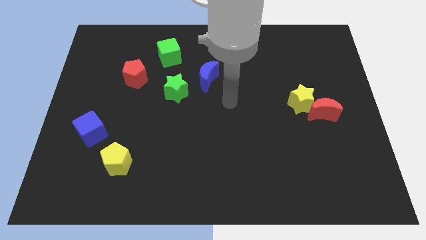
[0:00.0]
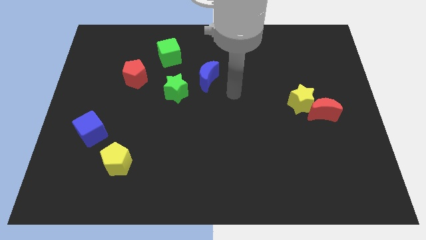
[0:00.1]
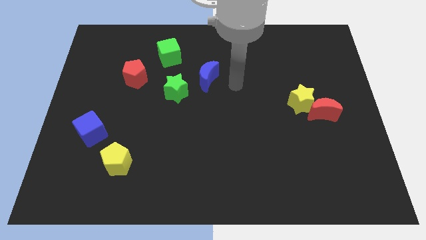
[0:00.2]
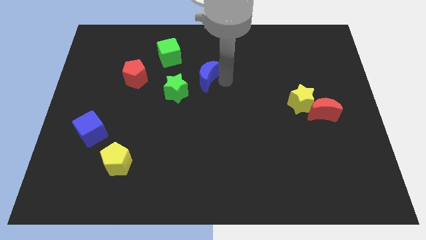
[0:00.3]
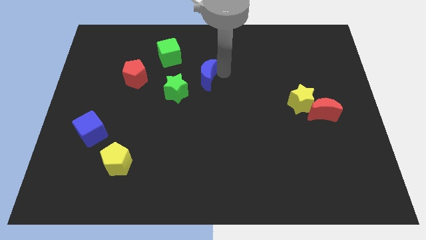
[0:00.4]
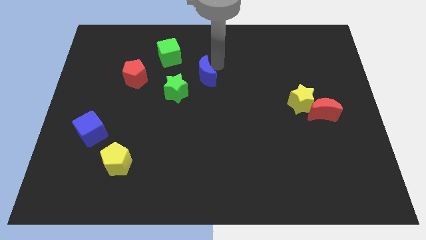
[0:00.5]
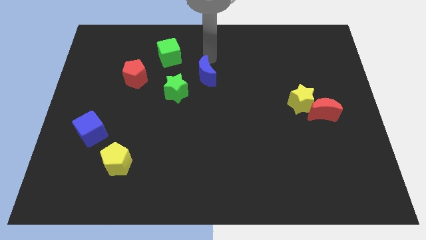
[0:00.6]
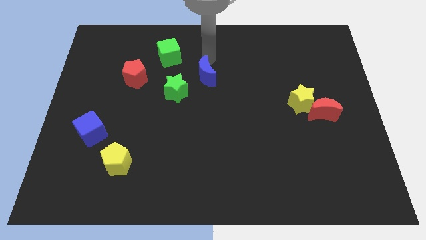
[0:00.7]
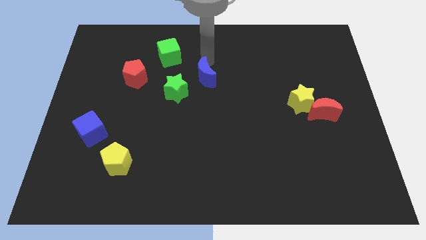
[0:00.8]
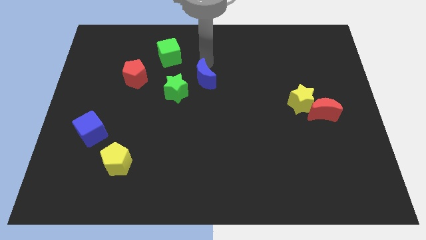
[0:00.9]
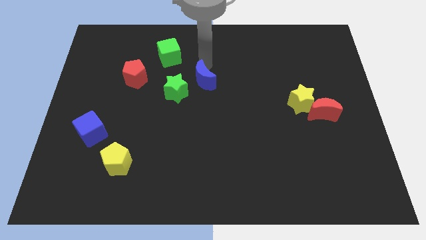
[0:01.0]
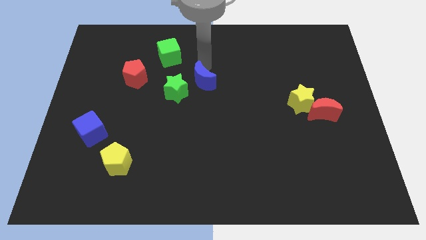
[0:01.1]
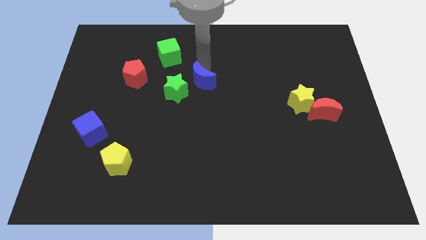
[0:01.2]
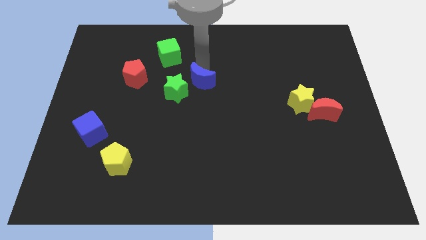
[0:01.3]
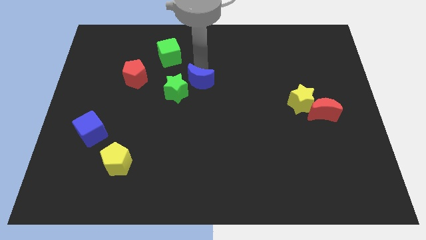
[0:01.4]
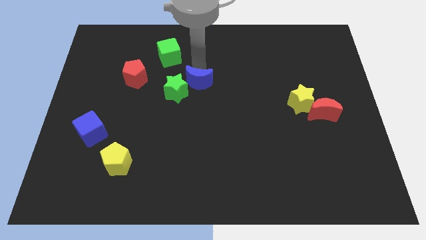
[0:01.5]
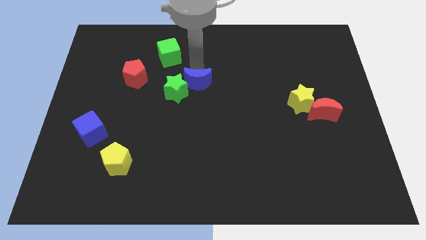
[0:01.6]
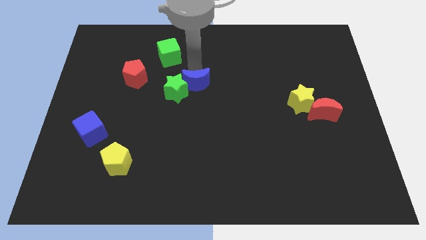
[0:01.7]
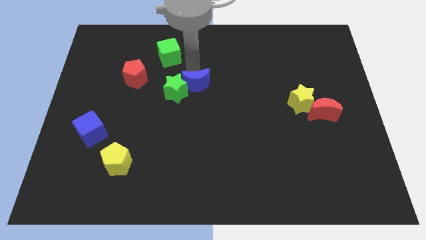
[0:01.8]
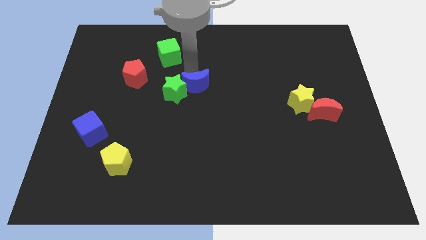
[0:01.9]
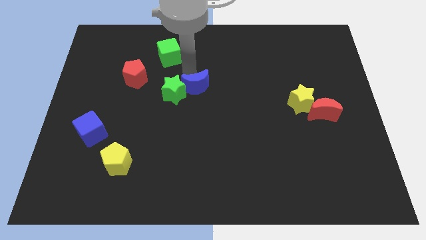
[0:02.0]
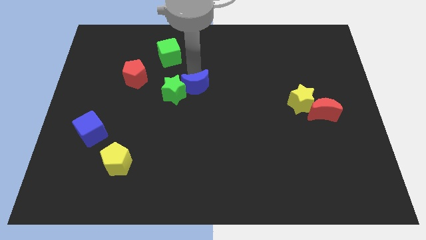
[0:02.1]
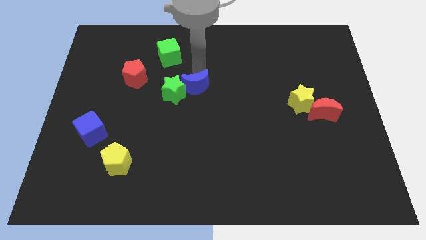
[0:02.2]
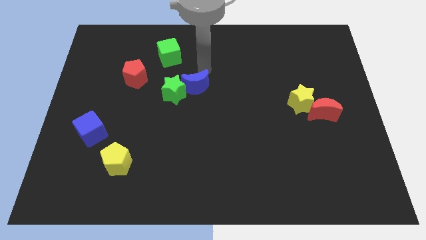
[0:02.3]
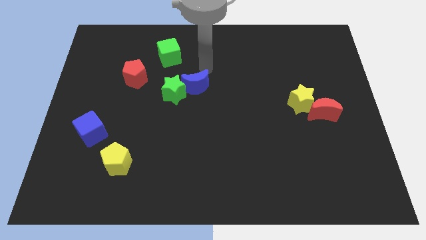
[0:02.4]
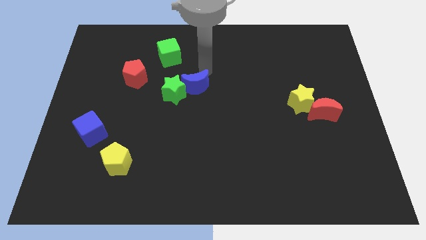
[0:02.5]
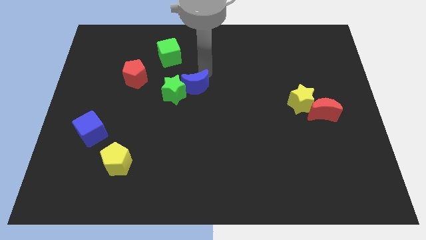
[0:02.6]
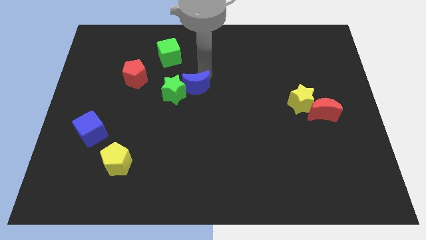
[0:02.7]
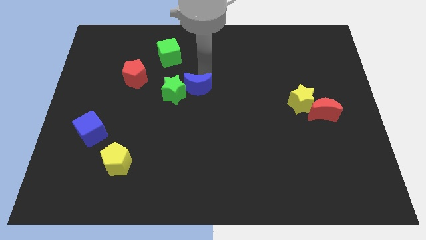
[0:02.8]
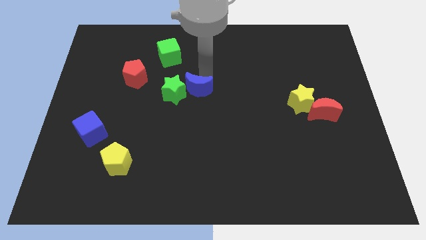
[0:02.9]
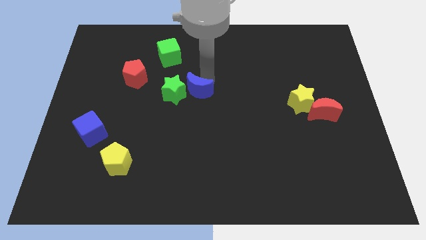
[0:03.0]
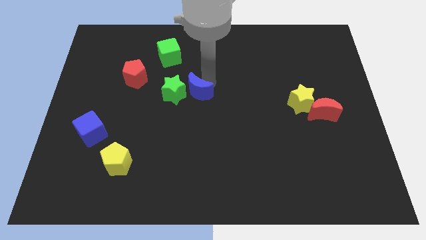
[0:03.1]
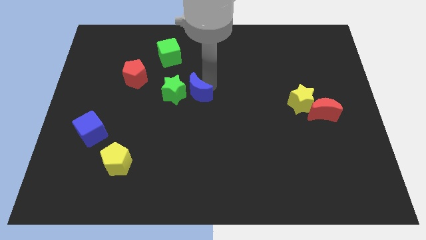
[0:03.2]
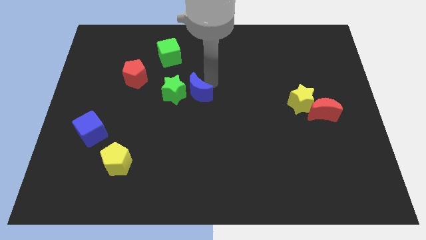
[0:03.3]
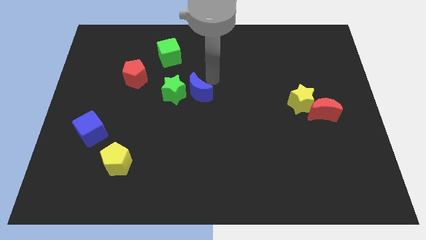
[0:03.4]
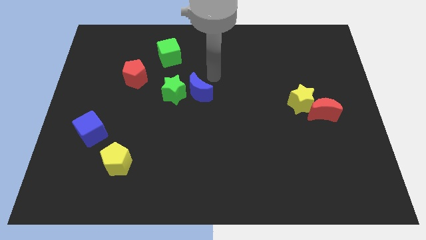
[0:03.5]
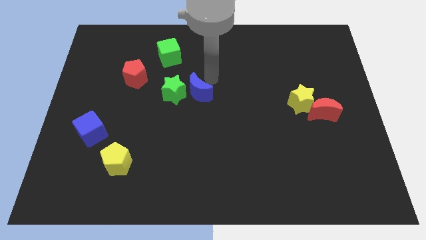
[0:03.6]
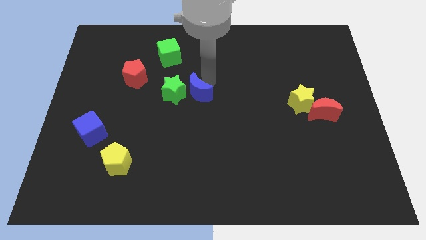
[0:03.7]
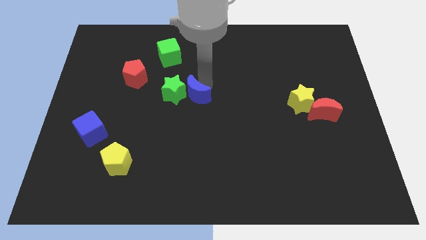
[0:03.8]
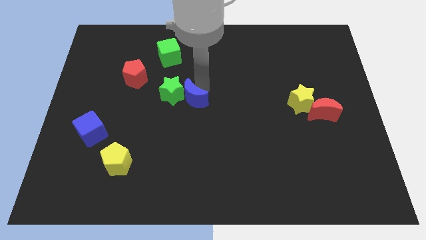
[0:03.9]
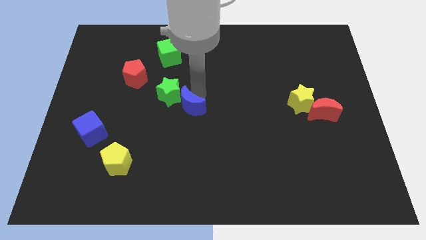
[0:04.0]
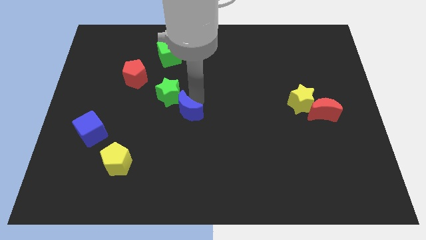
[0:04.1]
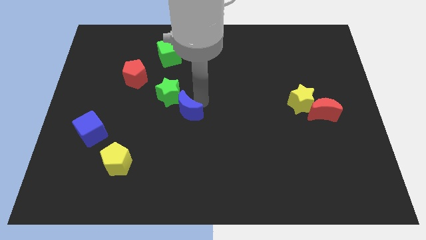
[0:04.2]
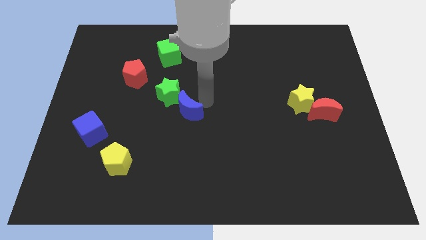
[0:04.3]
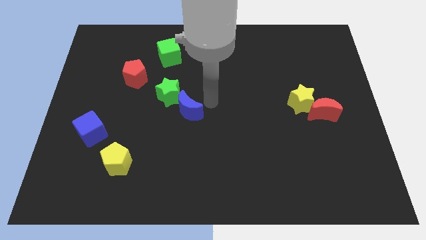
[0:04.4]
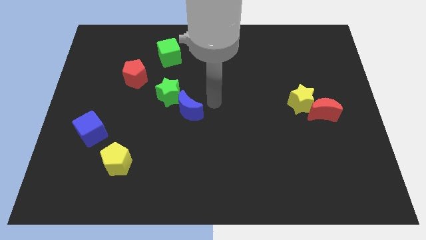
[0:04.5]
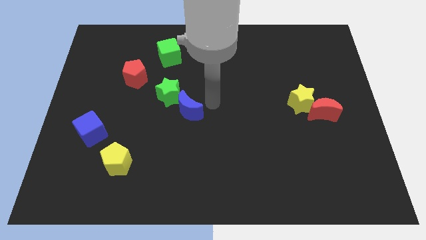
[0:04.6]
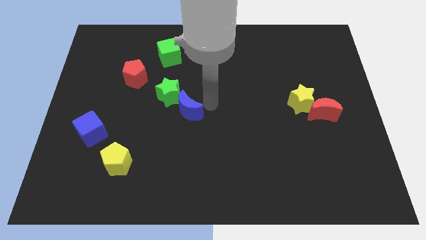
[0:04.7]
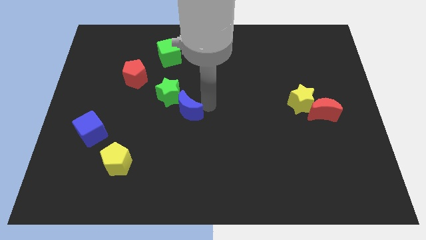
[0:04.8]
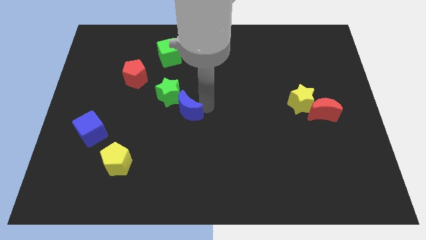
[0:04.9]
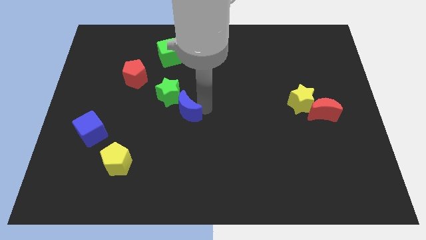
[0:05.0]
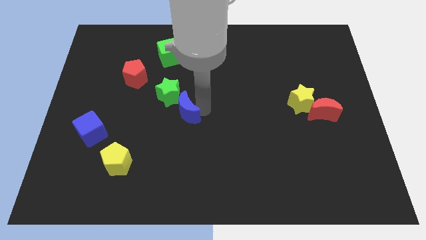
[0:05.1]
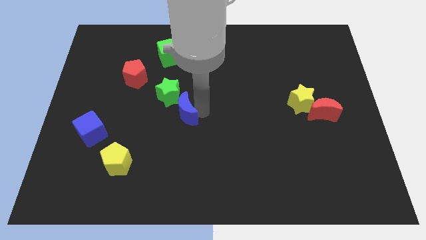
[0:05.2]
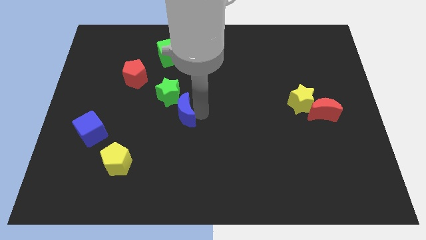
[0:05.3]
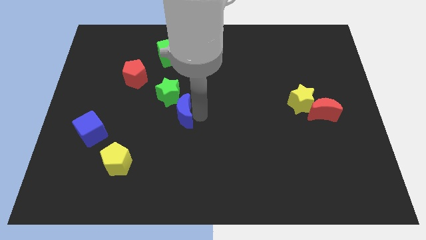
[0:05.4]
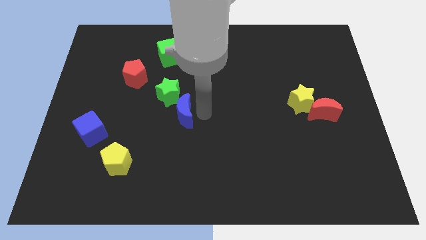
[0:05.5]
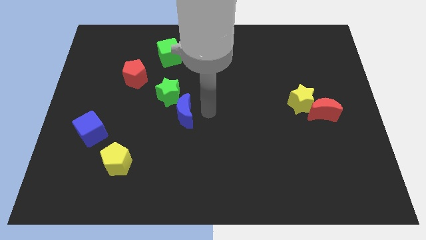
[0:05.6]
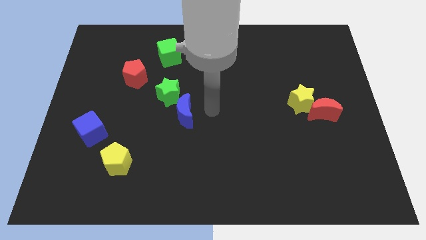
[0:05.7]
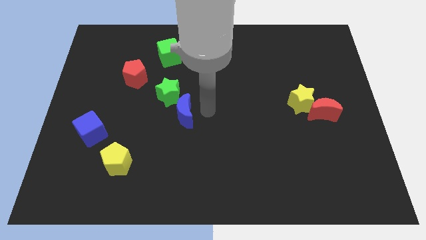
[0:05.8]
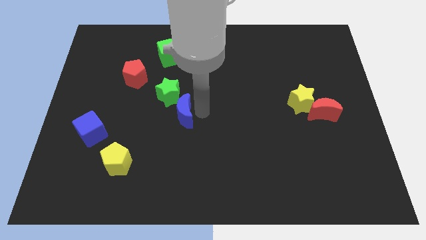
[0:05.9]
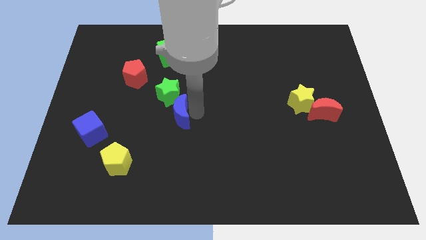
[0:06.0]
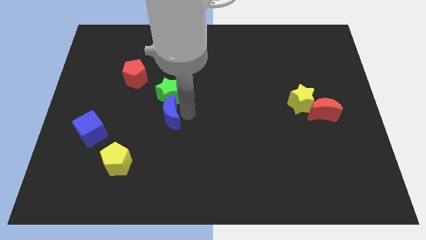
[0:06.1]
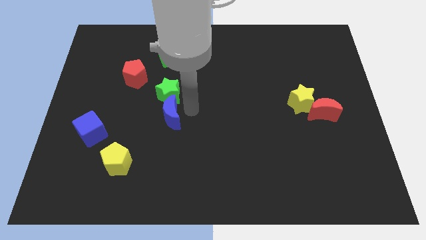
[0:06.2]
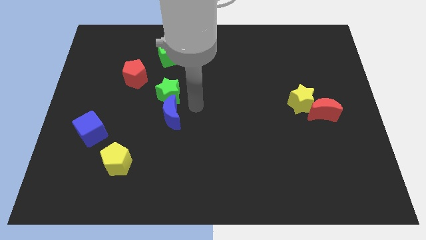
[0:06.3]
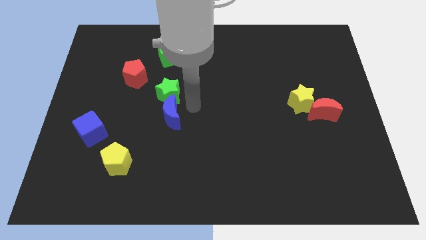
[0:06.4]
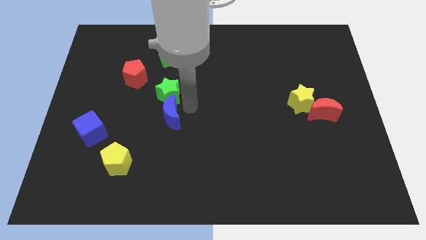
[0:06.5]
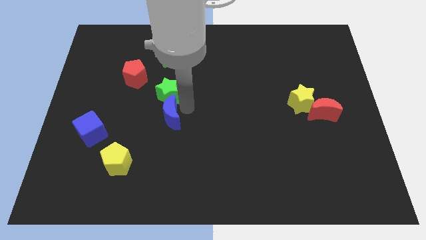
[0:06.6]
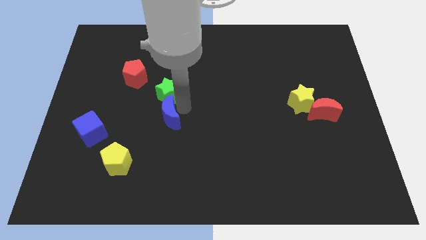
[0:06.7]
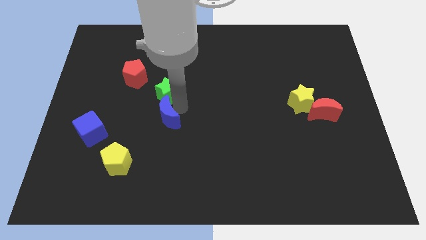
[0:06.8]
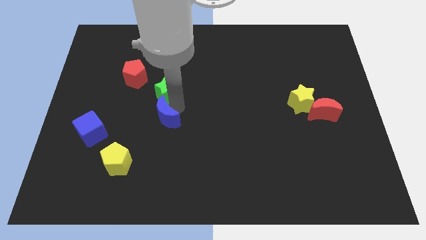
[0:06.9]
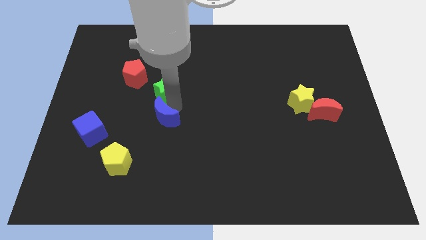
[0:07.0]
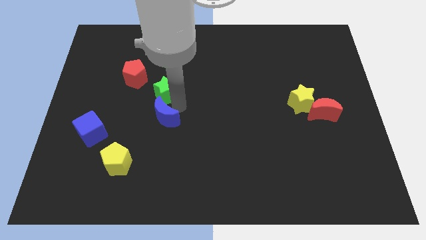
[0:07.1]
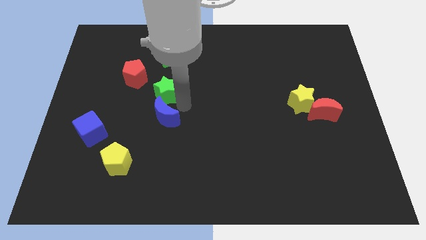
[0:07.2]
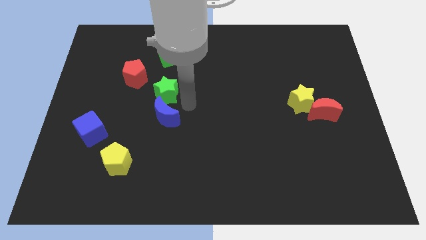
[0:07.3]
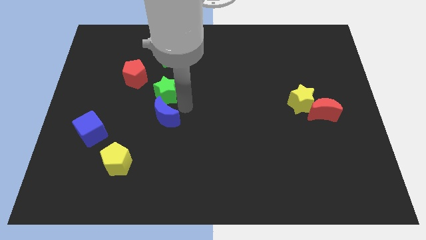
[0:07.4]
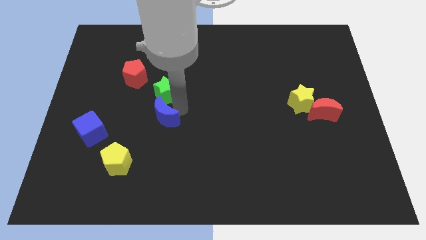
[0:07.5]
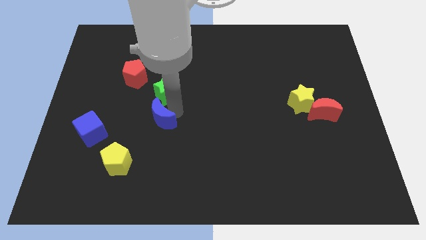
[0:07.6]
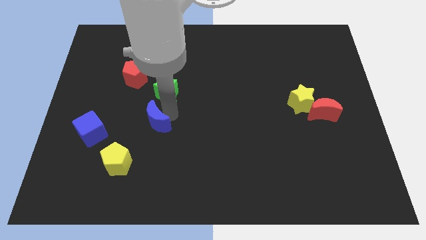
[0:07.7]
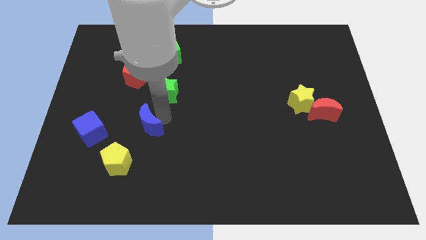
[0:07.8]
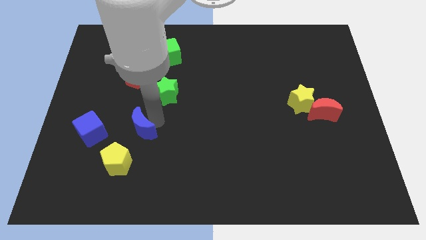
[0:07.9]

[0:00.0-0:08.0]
push the blue moon down and left diagonally
